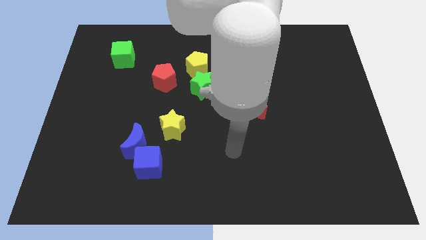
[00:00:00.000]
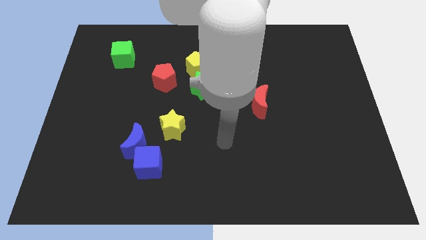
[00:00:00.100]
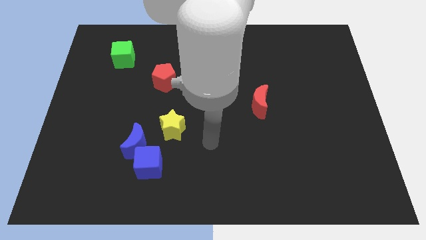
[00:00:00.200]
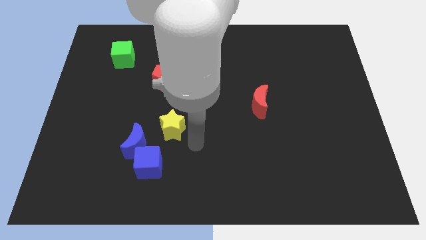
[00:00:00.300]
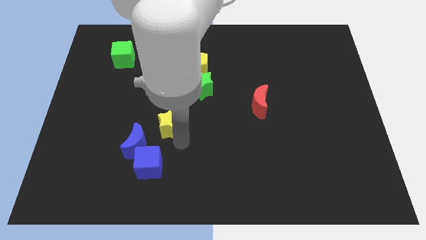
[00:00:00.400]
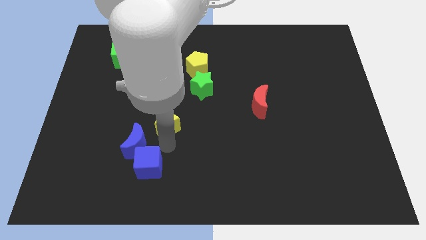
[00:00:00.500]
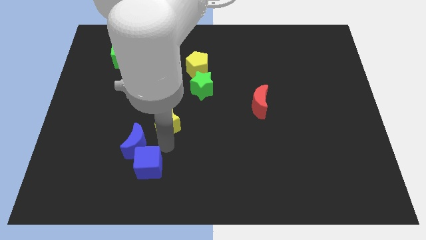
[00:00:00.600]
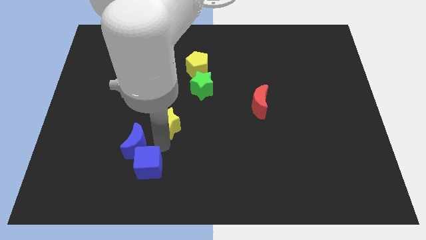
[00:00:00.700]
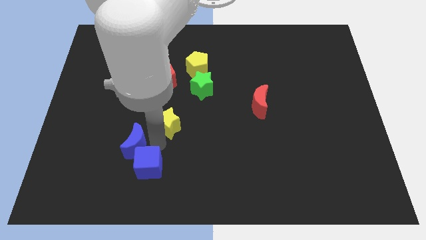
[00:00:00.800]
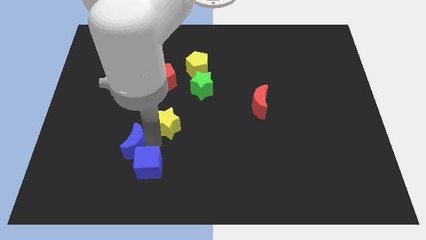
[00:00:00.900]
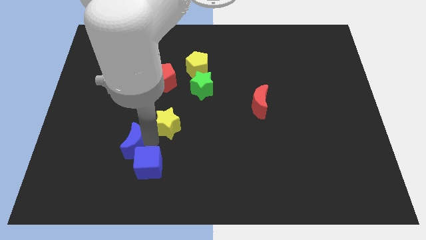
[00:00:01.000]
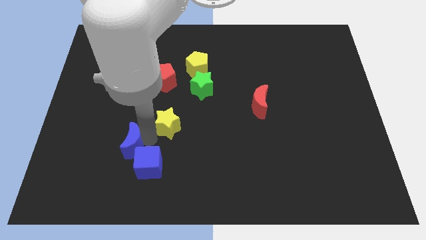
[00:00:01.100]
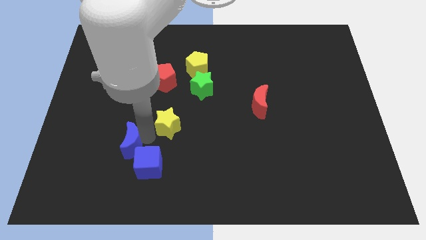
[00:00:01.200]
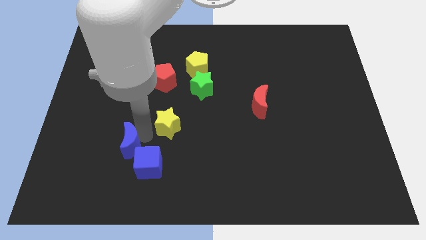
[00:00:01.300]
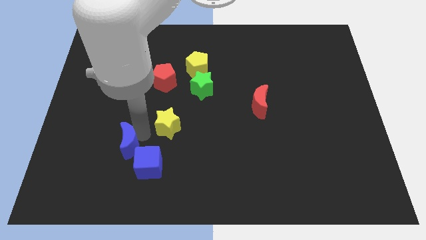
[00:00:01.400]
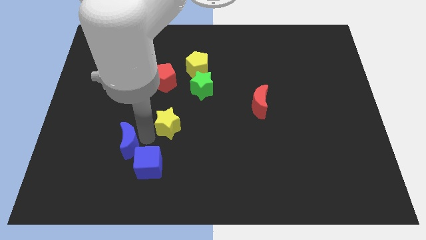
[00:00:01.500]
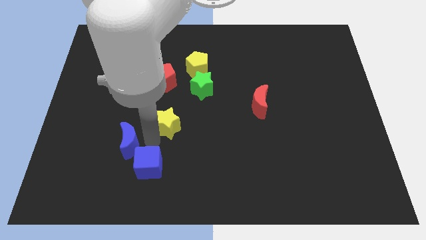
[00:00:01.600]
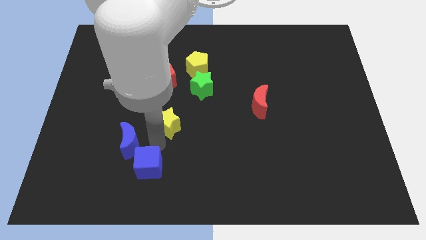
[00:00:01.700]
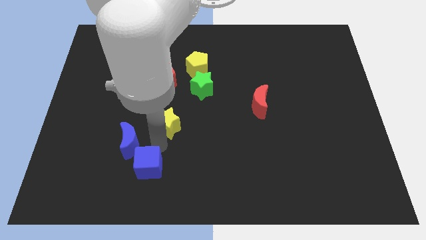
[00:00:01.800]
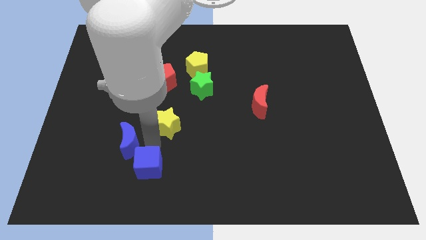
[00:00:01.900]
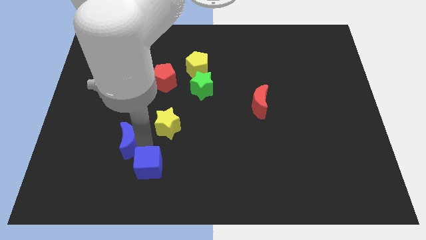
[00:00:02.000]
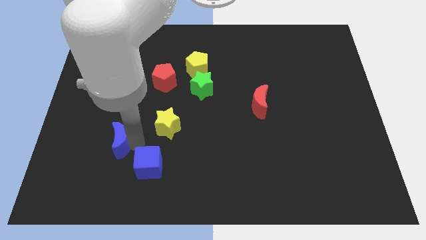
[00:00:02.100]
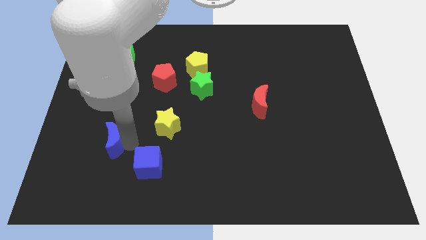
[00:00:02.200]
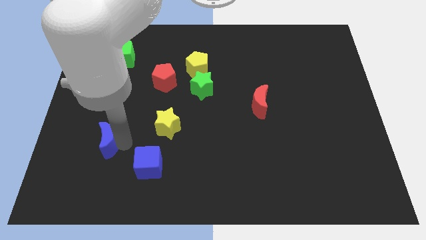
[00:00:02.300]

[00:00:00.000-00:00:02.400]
separate the blue moon from the blue cube and yellow star

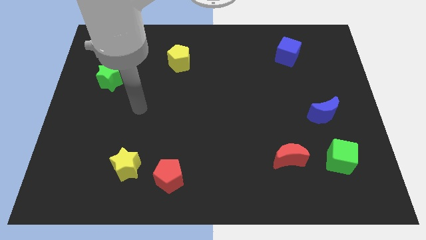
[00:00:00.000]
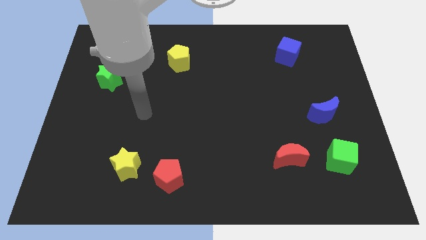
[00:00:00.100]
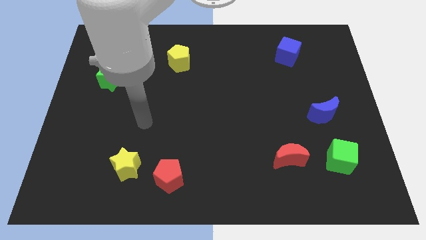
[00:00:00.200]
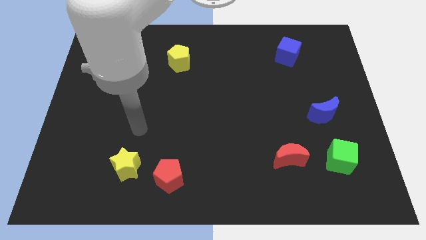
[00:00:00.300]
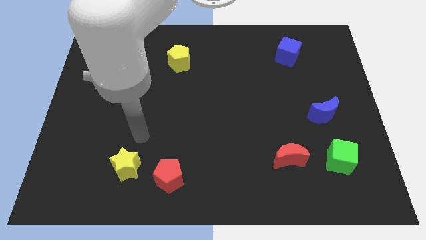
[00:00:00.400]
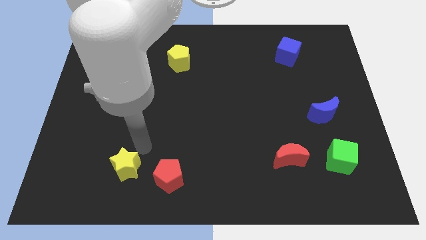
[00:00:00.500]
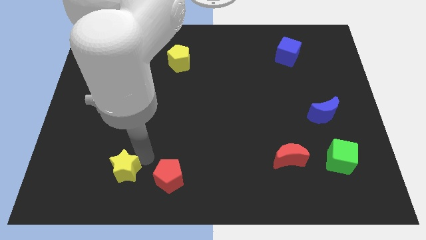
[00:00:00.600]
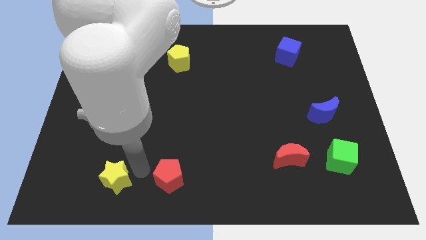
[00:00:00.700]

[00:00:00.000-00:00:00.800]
move the red pentagon away from the yellow star

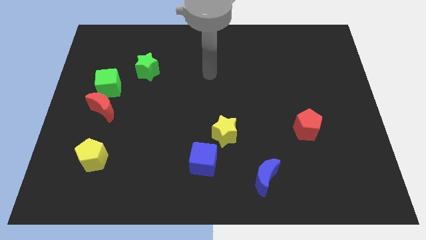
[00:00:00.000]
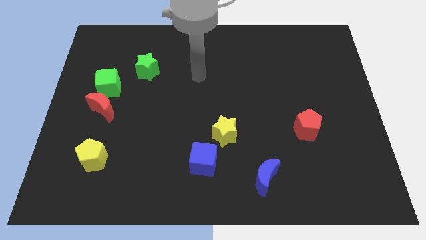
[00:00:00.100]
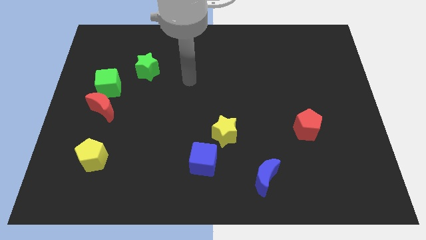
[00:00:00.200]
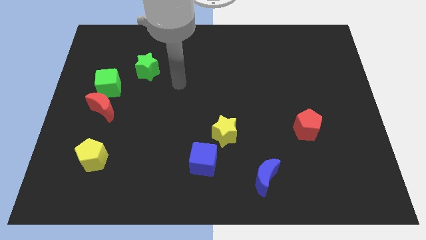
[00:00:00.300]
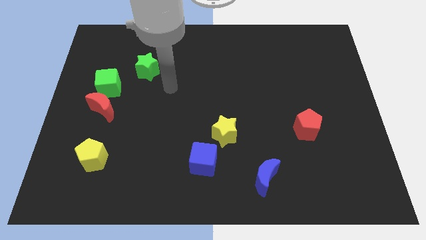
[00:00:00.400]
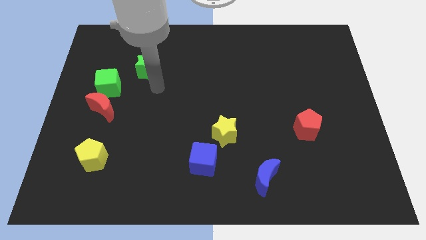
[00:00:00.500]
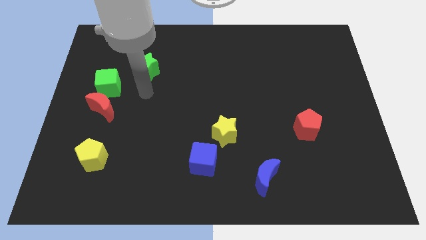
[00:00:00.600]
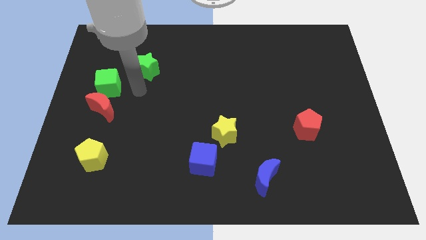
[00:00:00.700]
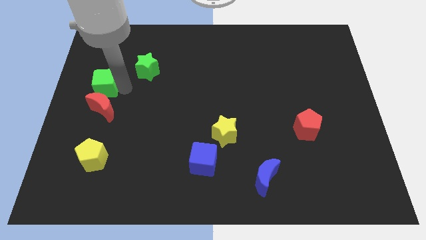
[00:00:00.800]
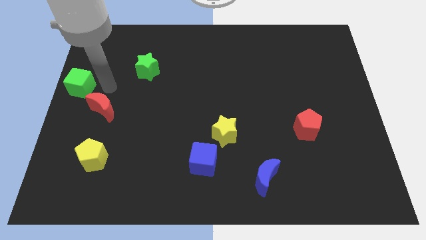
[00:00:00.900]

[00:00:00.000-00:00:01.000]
separate the red moon from the green cube

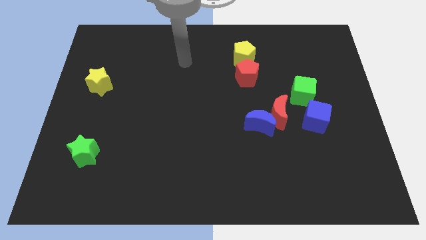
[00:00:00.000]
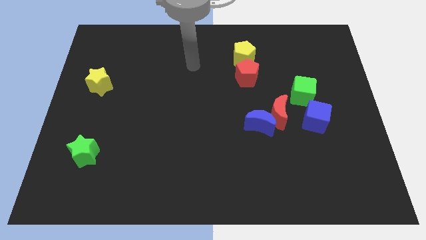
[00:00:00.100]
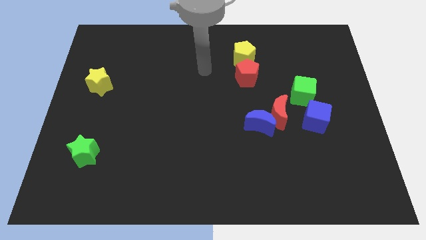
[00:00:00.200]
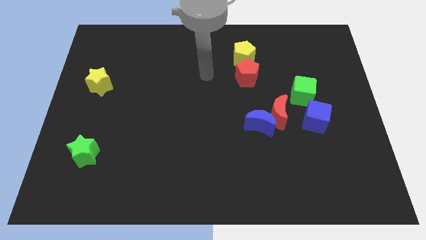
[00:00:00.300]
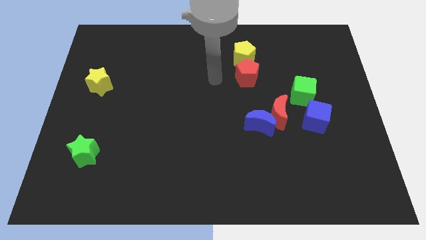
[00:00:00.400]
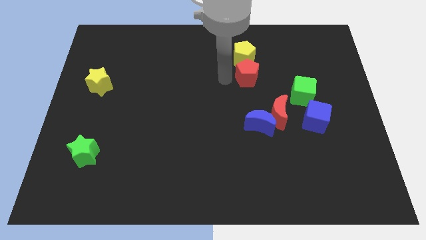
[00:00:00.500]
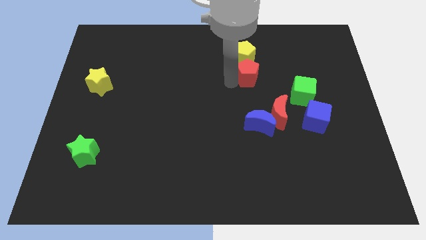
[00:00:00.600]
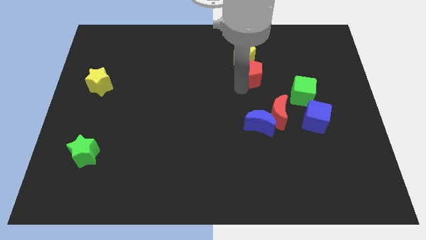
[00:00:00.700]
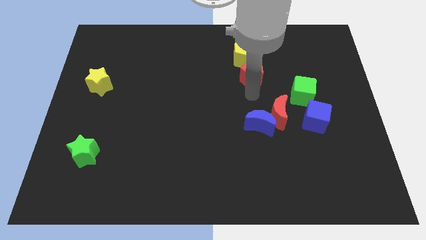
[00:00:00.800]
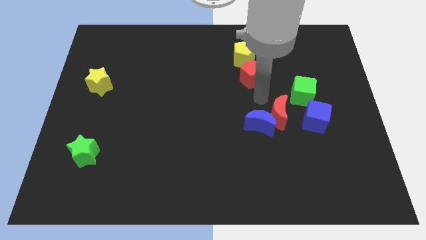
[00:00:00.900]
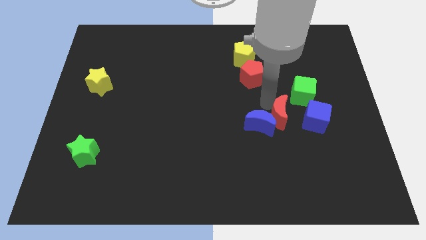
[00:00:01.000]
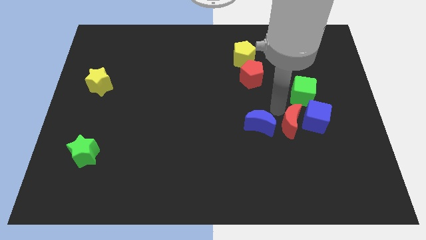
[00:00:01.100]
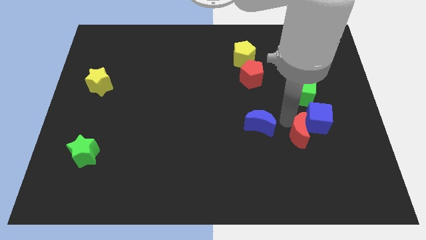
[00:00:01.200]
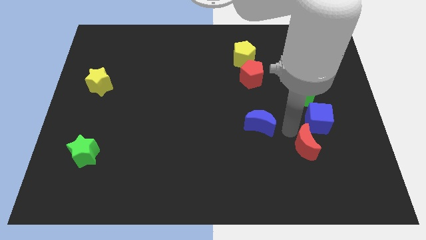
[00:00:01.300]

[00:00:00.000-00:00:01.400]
move the blue moon away from the red moon

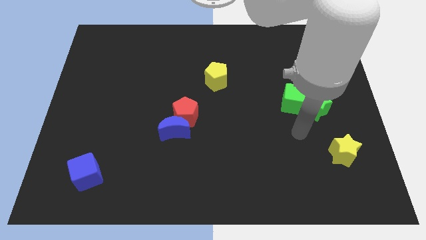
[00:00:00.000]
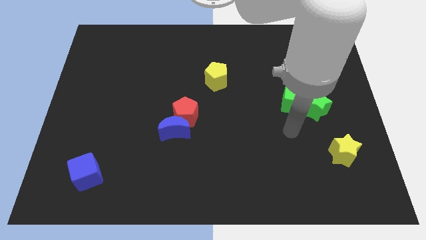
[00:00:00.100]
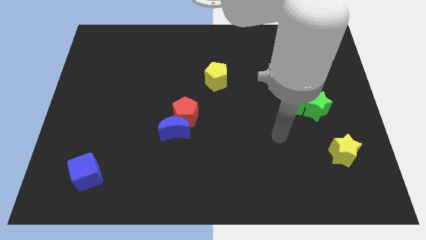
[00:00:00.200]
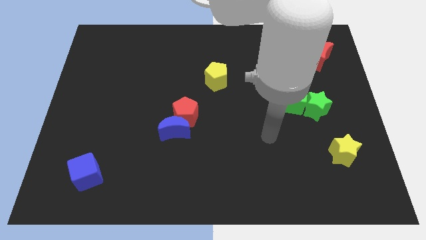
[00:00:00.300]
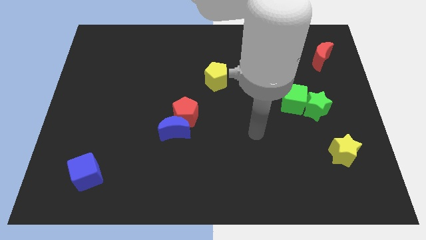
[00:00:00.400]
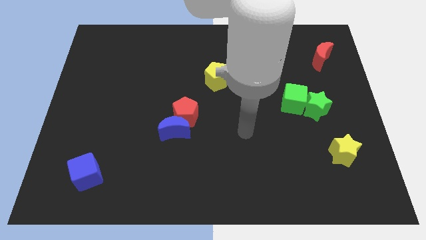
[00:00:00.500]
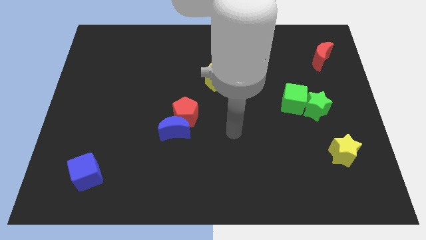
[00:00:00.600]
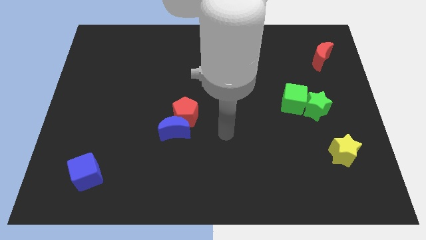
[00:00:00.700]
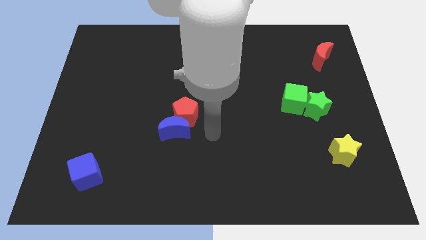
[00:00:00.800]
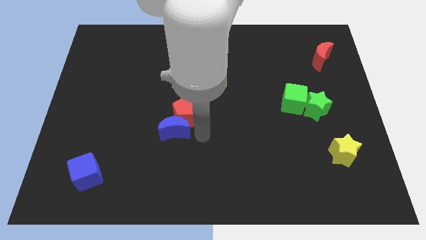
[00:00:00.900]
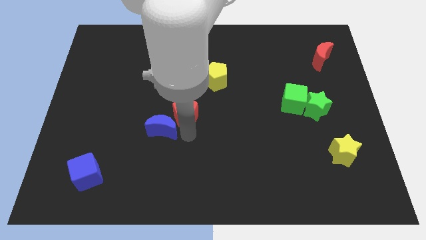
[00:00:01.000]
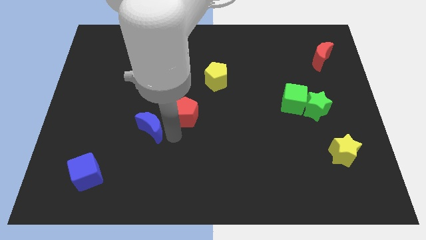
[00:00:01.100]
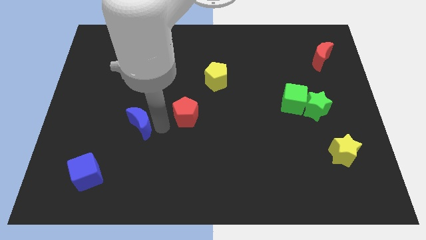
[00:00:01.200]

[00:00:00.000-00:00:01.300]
pull the red pentagon apart from the blue moon

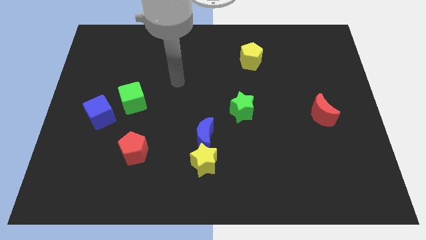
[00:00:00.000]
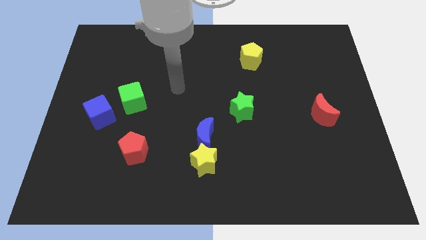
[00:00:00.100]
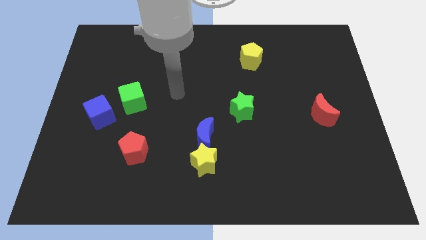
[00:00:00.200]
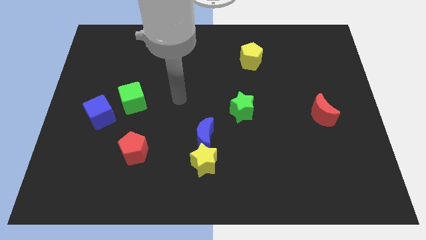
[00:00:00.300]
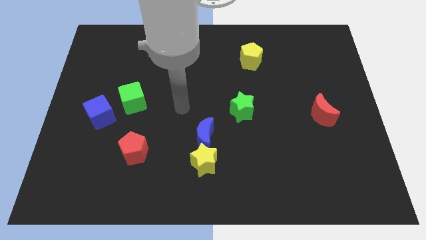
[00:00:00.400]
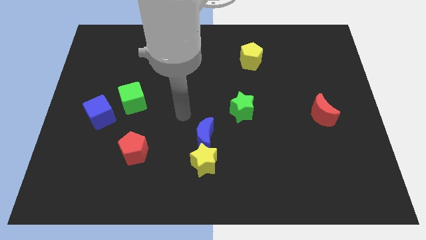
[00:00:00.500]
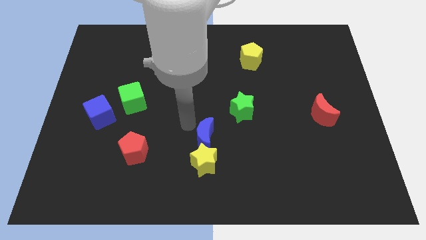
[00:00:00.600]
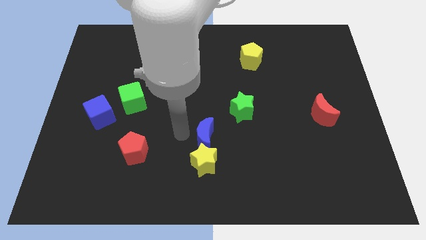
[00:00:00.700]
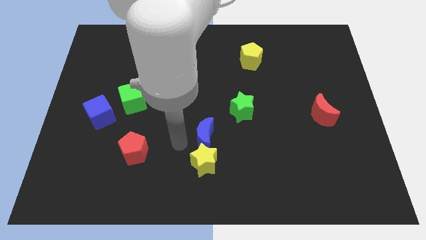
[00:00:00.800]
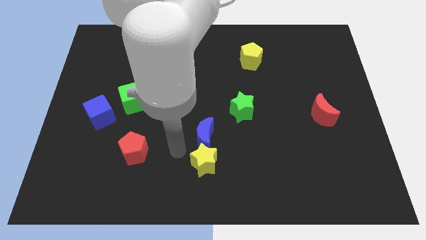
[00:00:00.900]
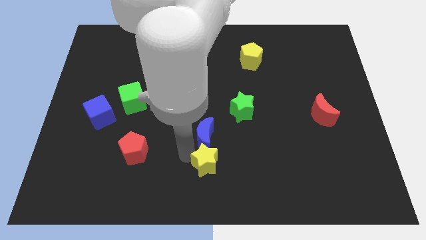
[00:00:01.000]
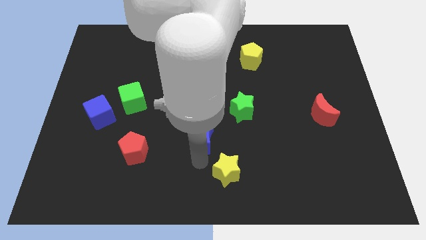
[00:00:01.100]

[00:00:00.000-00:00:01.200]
pull the blue moon apart from the yellow star

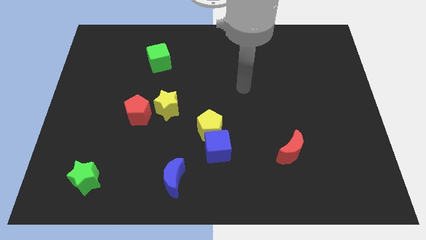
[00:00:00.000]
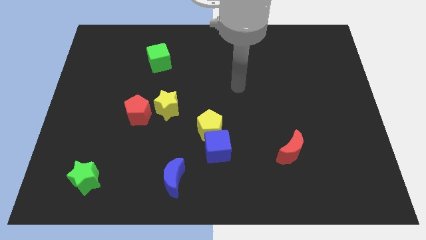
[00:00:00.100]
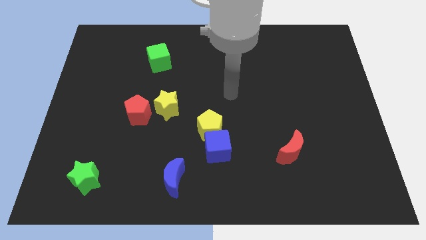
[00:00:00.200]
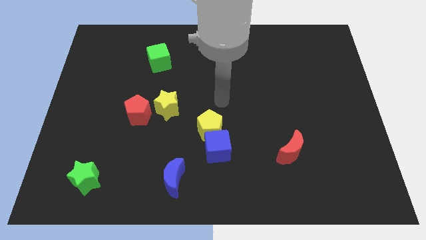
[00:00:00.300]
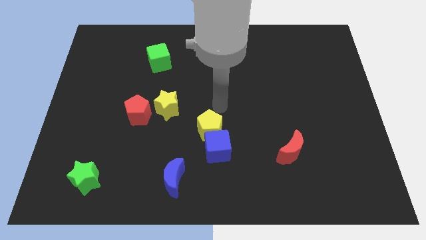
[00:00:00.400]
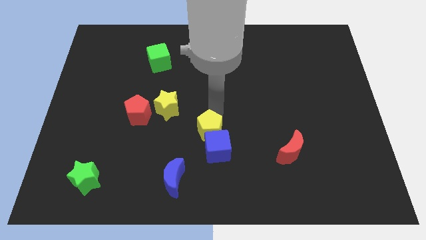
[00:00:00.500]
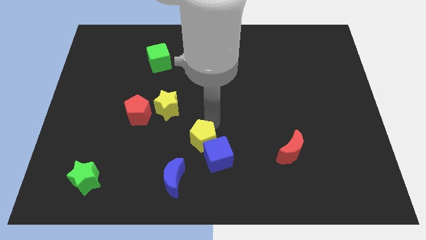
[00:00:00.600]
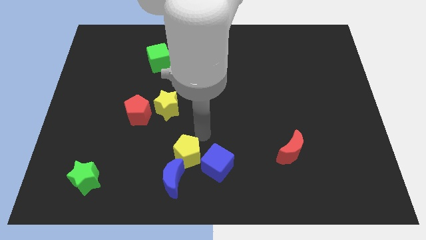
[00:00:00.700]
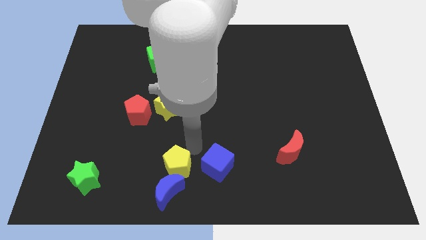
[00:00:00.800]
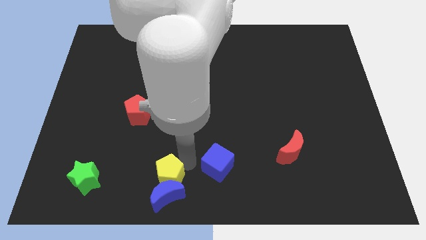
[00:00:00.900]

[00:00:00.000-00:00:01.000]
pull the blue cube apart from the yellow pentagon

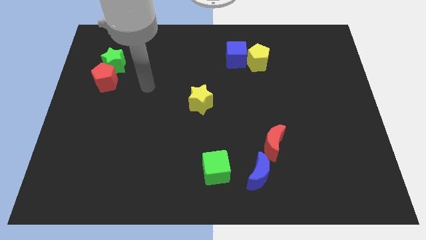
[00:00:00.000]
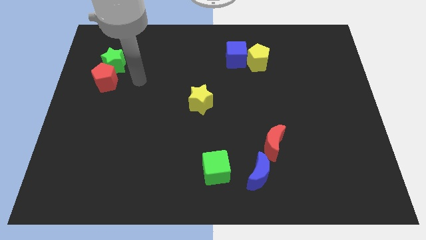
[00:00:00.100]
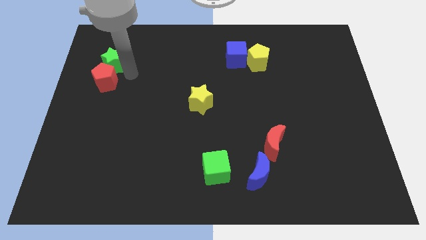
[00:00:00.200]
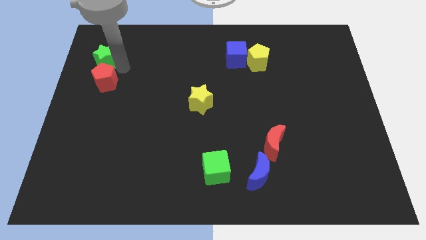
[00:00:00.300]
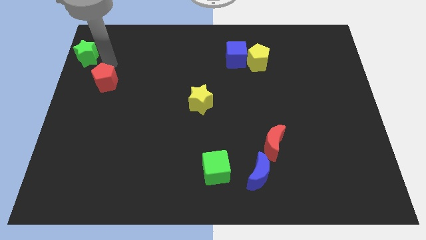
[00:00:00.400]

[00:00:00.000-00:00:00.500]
separate the red pentagon from the green star
